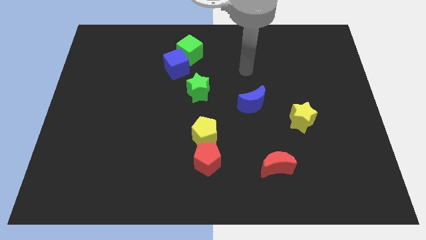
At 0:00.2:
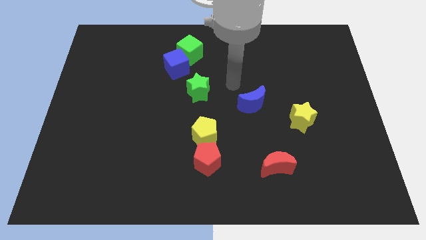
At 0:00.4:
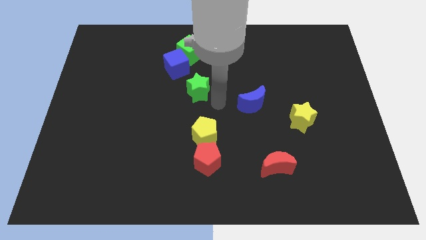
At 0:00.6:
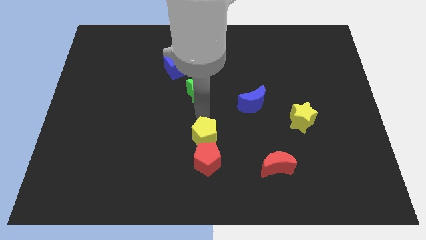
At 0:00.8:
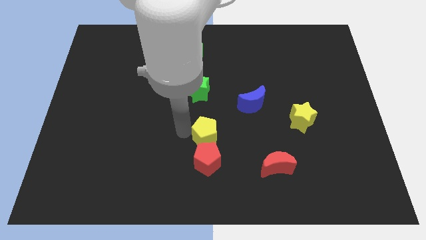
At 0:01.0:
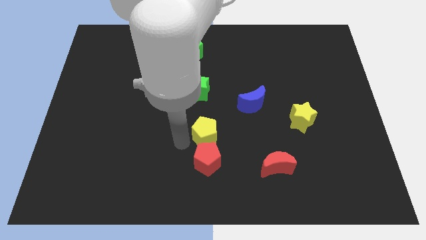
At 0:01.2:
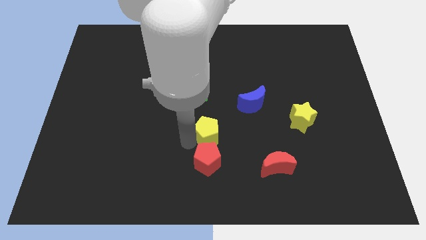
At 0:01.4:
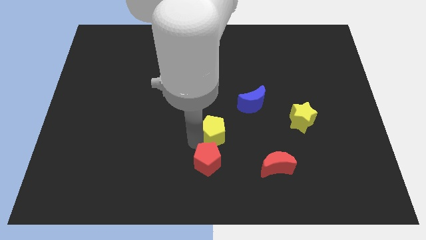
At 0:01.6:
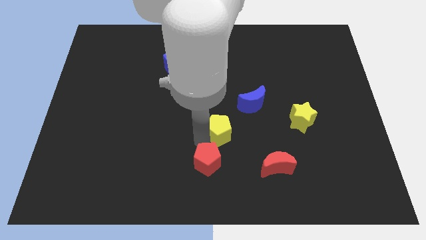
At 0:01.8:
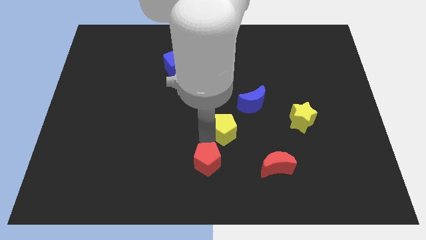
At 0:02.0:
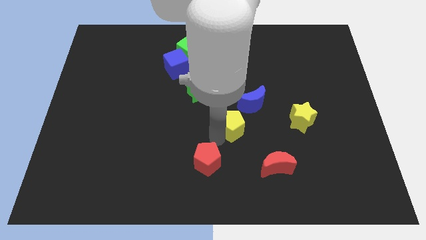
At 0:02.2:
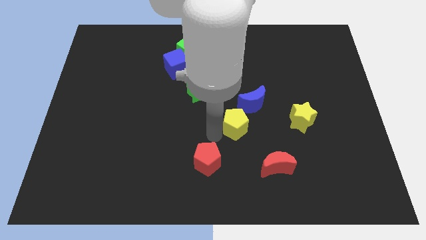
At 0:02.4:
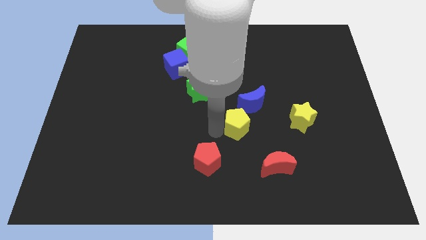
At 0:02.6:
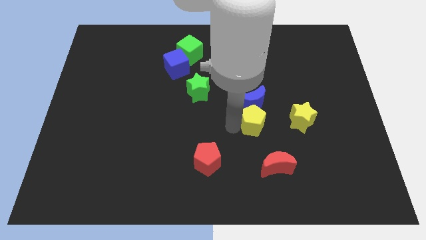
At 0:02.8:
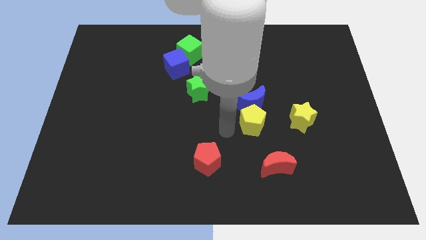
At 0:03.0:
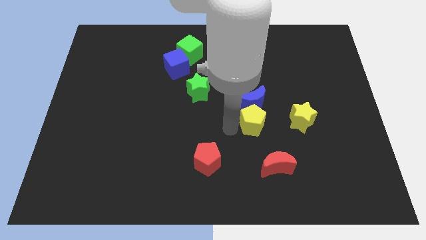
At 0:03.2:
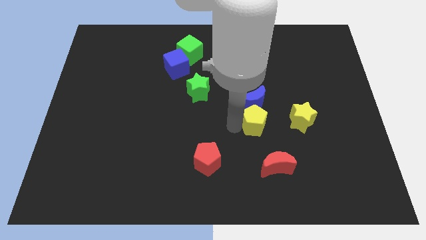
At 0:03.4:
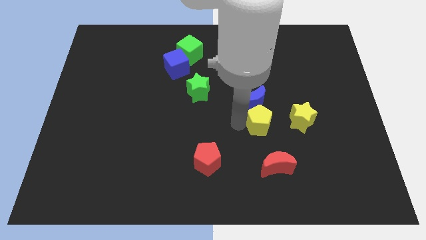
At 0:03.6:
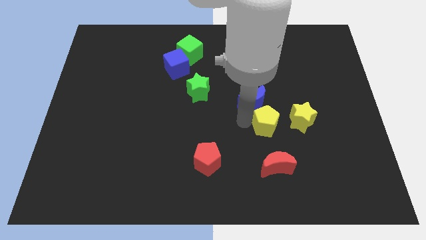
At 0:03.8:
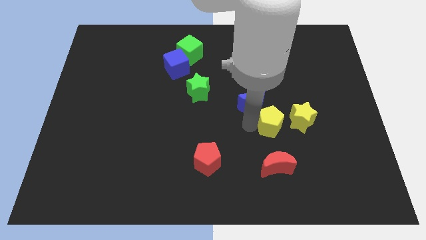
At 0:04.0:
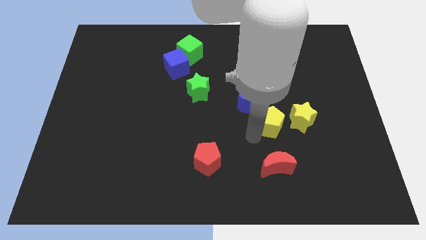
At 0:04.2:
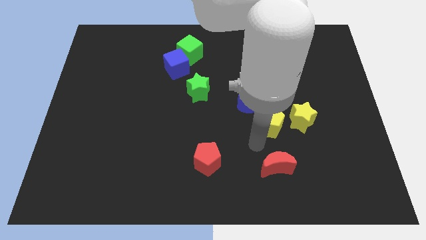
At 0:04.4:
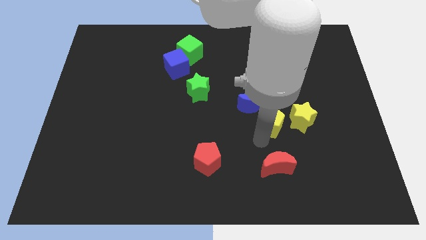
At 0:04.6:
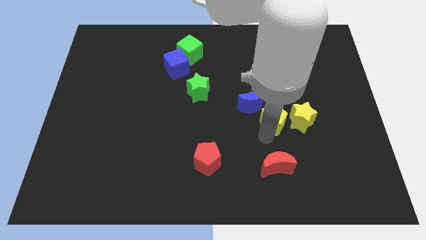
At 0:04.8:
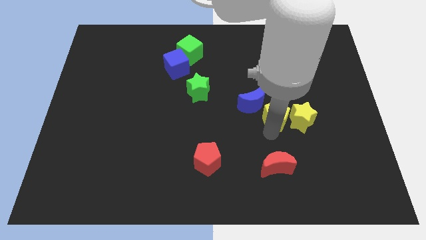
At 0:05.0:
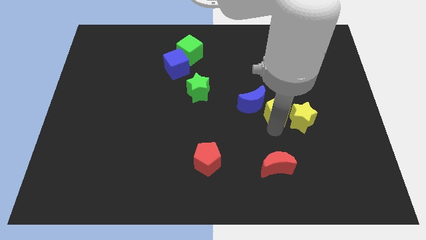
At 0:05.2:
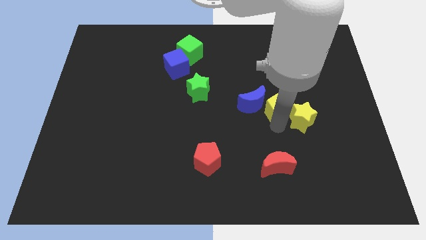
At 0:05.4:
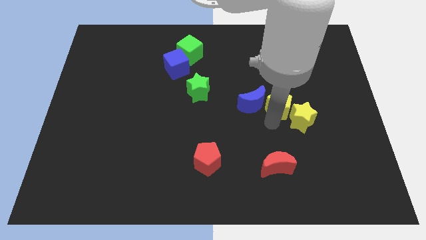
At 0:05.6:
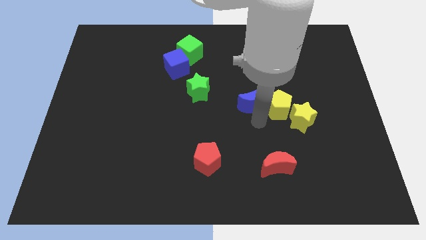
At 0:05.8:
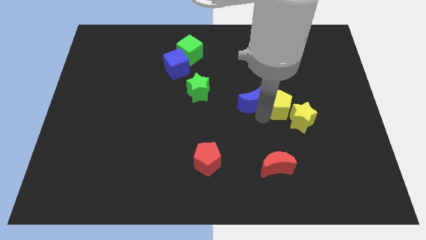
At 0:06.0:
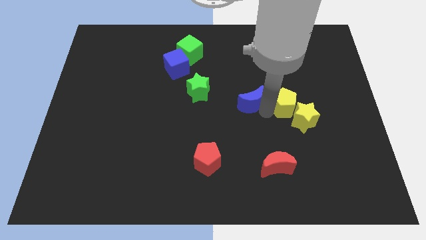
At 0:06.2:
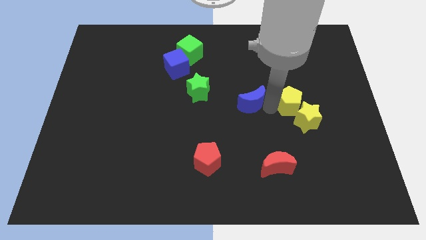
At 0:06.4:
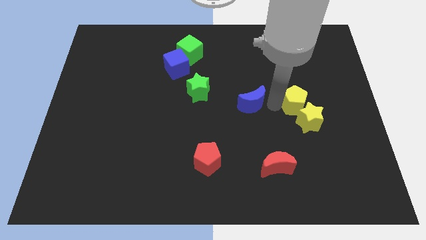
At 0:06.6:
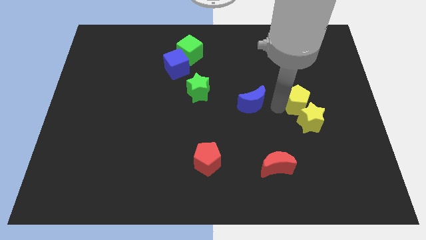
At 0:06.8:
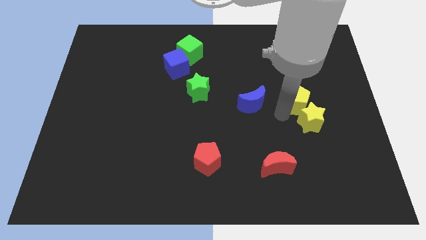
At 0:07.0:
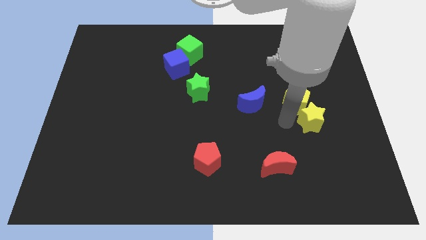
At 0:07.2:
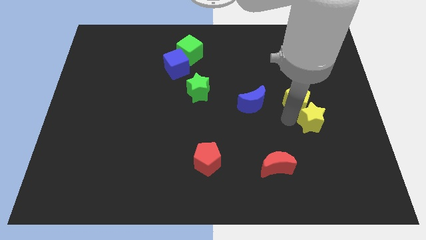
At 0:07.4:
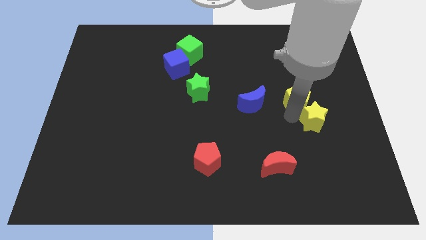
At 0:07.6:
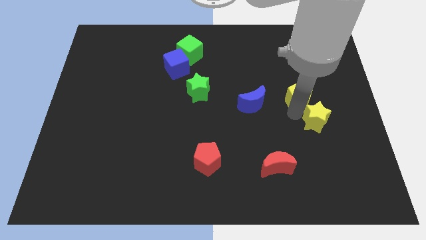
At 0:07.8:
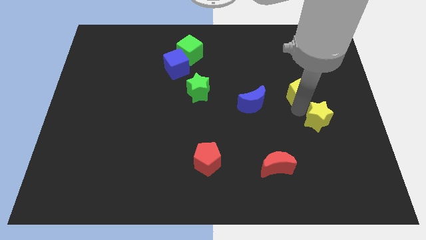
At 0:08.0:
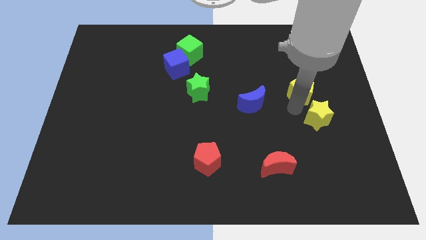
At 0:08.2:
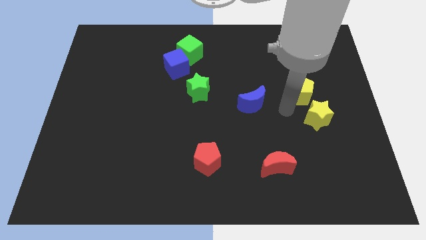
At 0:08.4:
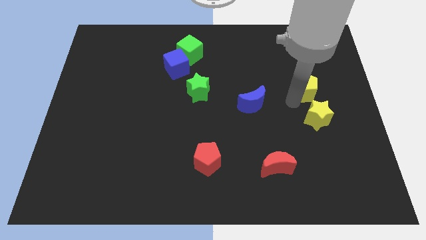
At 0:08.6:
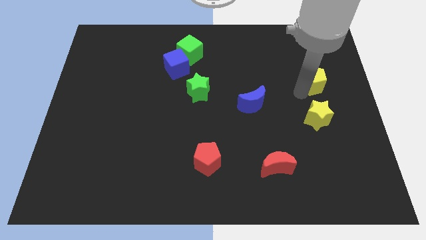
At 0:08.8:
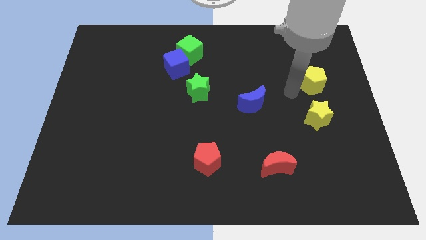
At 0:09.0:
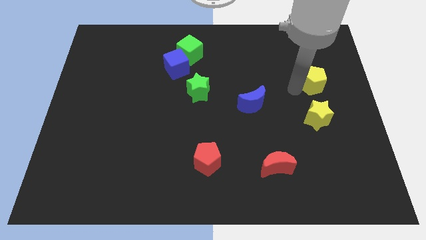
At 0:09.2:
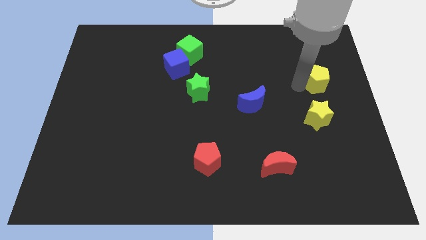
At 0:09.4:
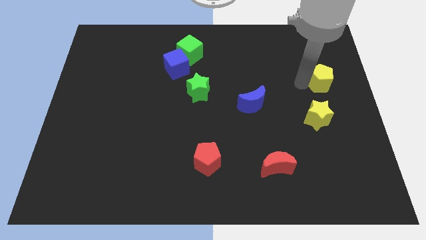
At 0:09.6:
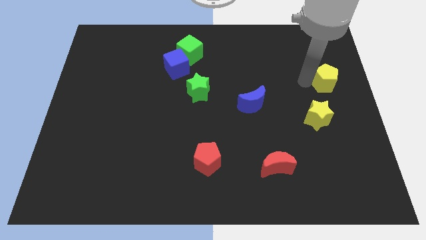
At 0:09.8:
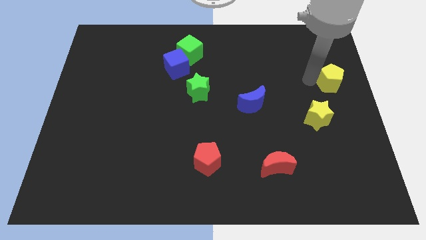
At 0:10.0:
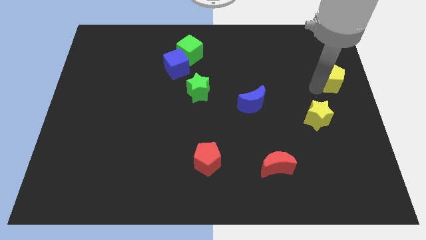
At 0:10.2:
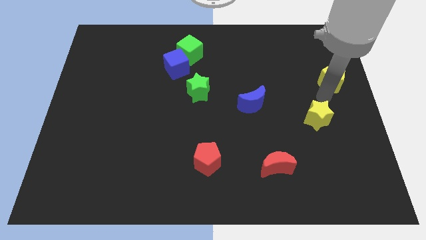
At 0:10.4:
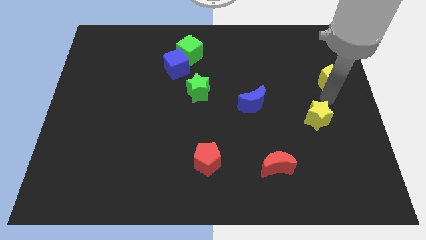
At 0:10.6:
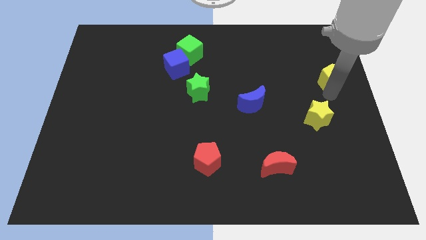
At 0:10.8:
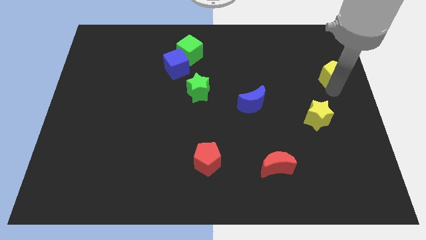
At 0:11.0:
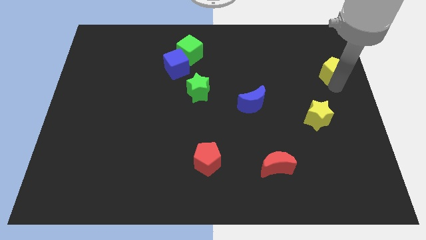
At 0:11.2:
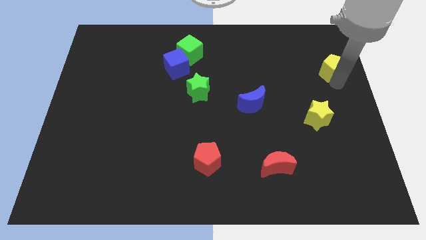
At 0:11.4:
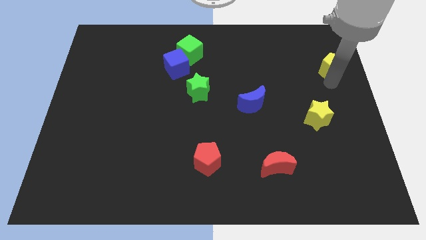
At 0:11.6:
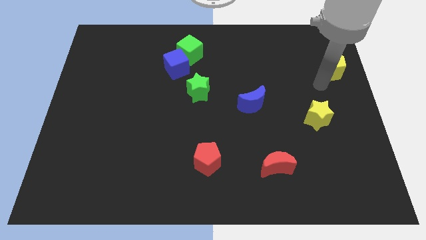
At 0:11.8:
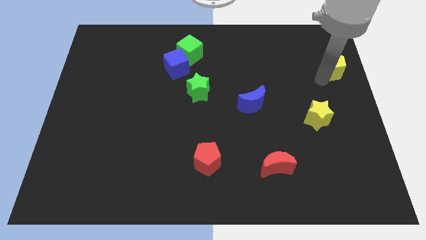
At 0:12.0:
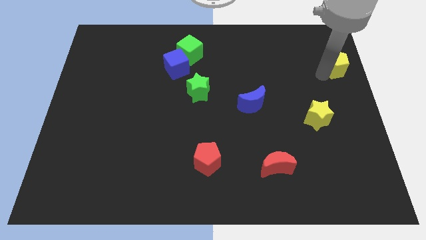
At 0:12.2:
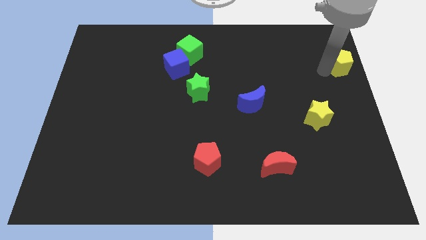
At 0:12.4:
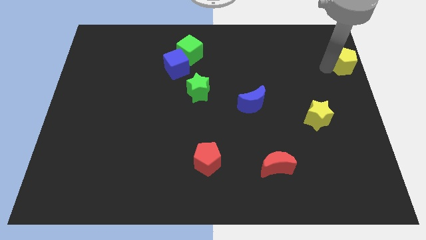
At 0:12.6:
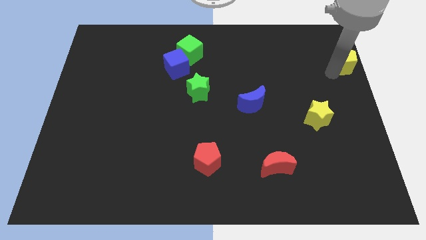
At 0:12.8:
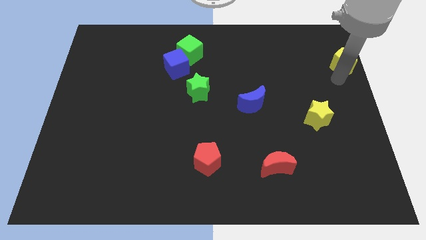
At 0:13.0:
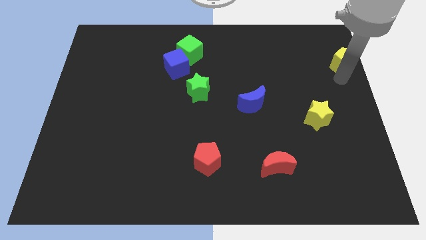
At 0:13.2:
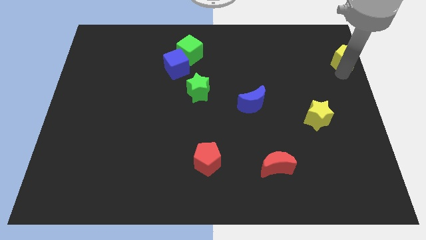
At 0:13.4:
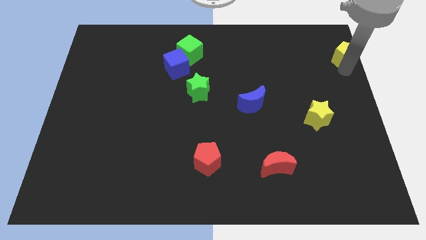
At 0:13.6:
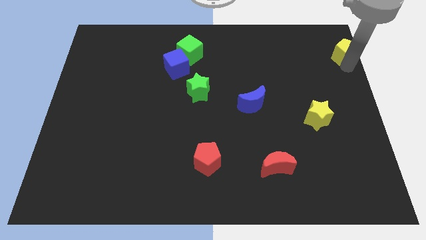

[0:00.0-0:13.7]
push the yellow pentagon to the top right corner

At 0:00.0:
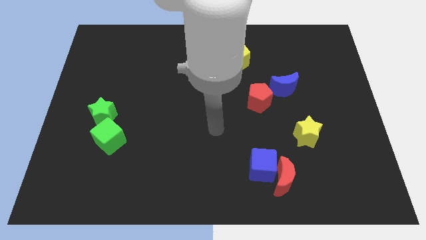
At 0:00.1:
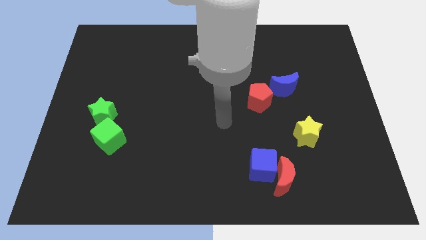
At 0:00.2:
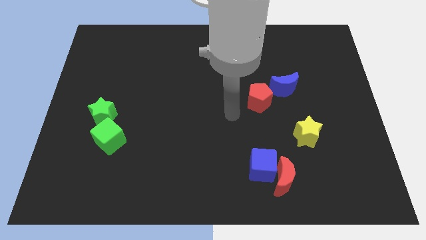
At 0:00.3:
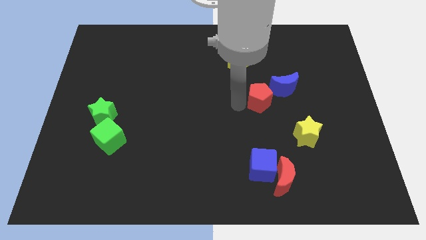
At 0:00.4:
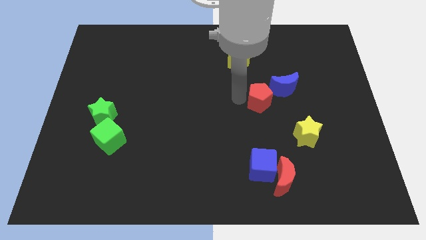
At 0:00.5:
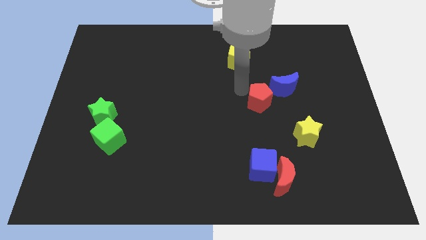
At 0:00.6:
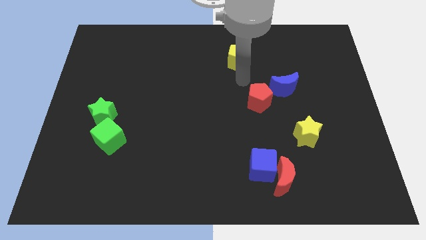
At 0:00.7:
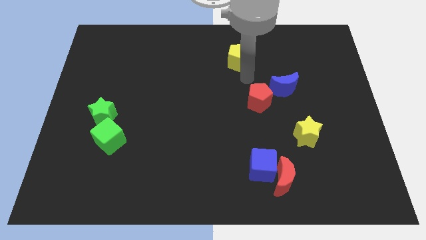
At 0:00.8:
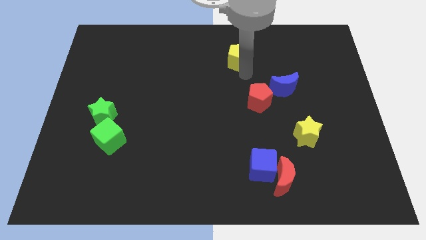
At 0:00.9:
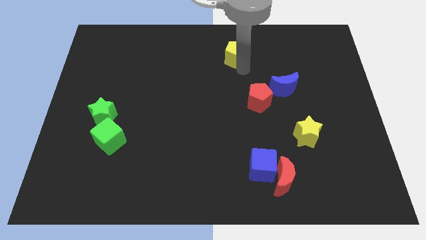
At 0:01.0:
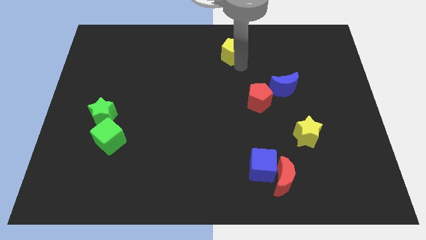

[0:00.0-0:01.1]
slide the yellow pentagon to the towards your base
